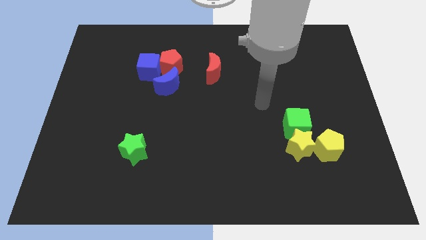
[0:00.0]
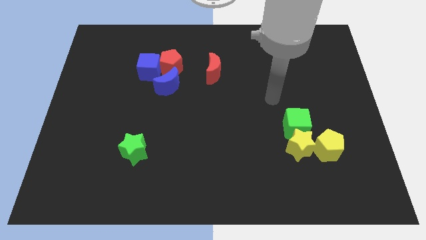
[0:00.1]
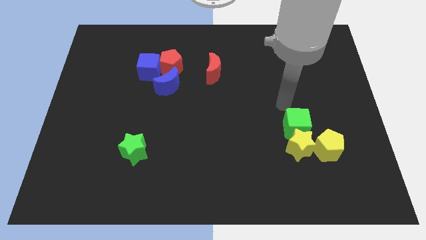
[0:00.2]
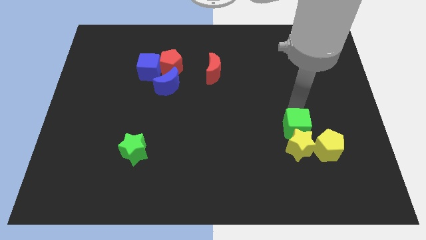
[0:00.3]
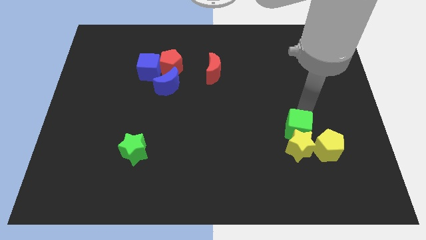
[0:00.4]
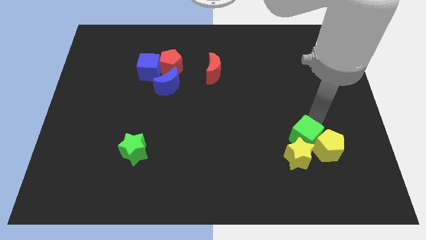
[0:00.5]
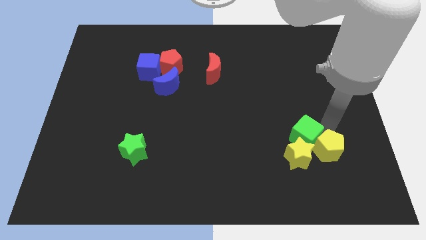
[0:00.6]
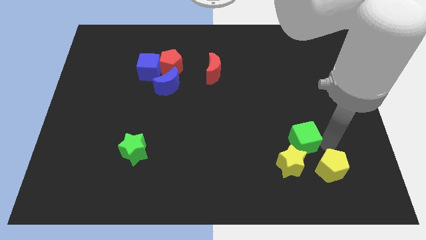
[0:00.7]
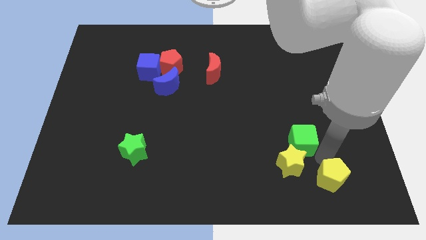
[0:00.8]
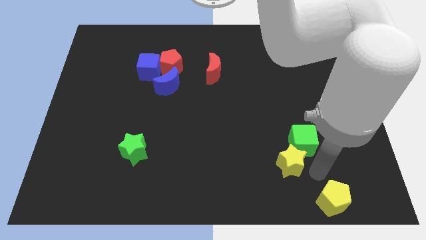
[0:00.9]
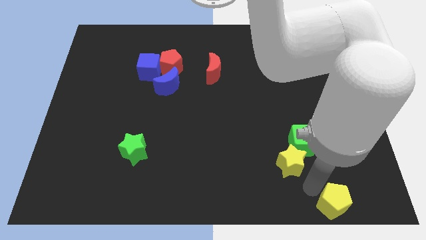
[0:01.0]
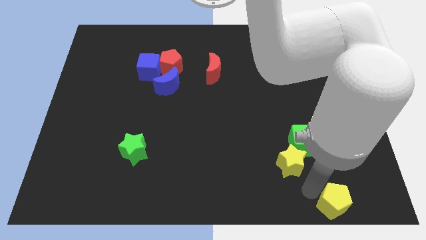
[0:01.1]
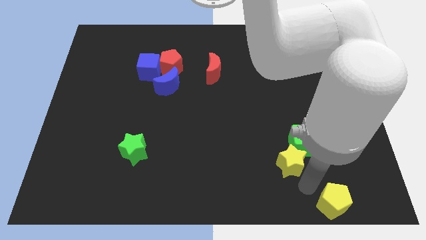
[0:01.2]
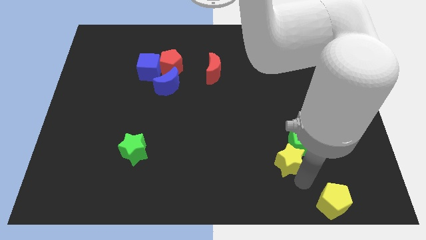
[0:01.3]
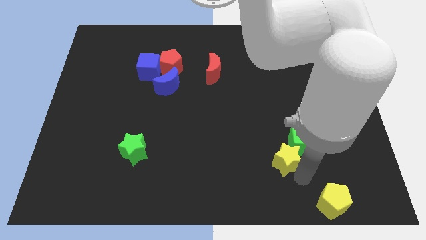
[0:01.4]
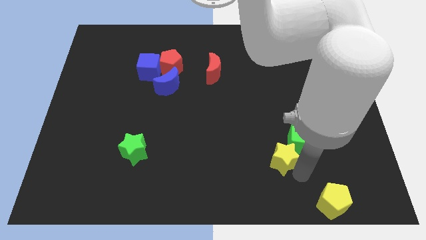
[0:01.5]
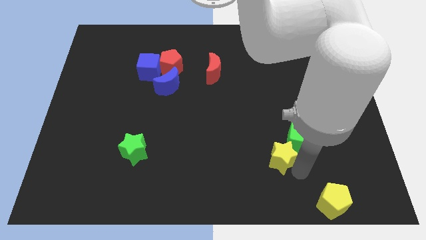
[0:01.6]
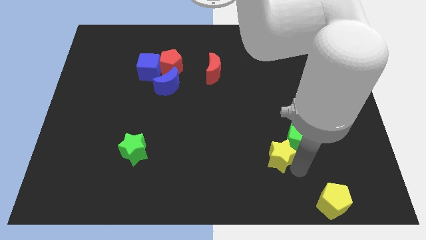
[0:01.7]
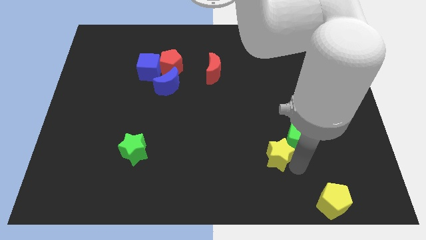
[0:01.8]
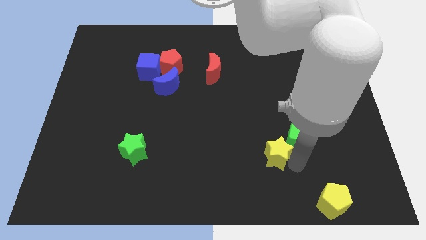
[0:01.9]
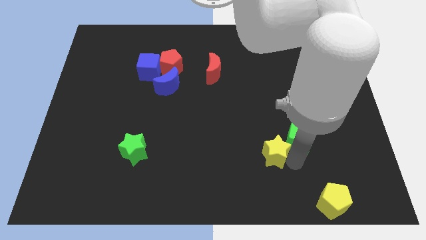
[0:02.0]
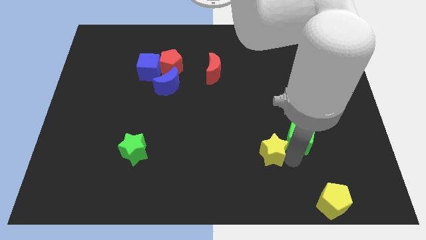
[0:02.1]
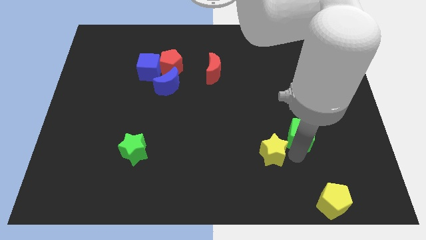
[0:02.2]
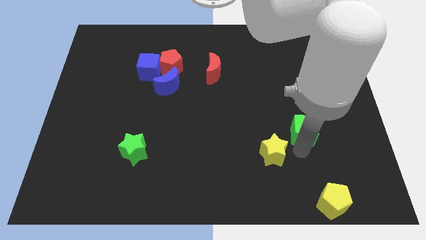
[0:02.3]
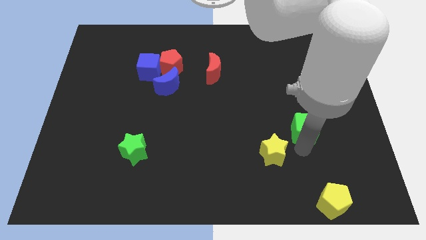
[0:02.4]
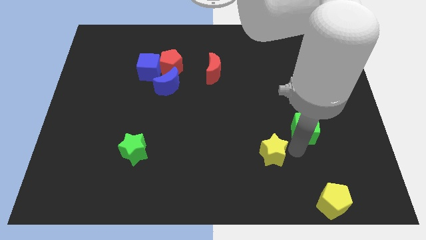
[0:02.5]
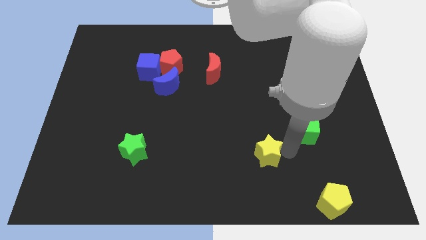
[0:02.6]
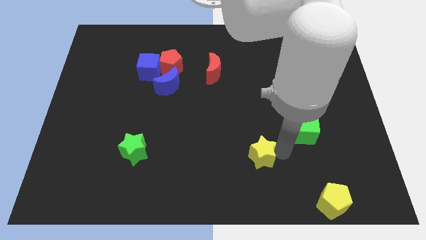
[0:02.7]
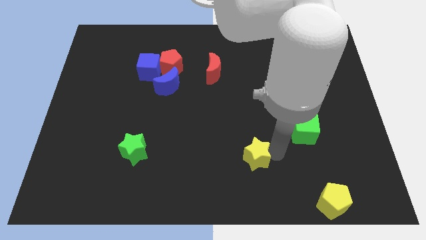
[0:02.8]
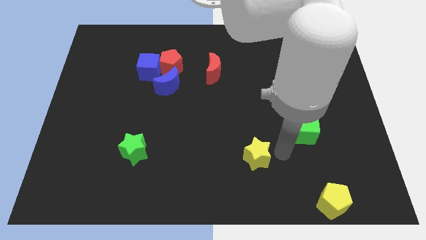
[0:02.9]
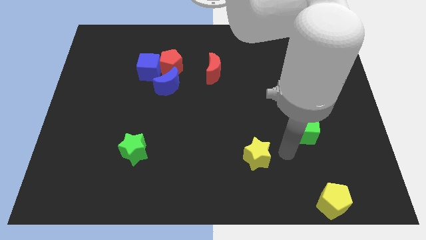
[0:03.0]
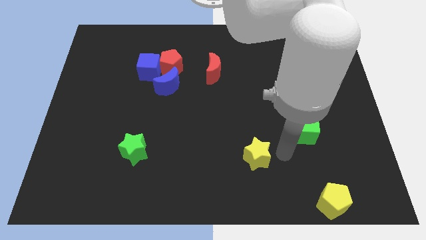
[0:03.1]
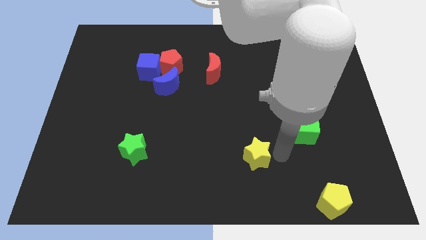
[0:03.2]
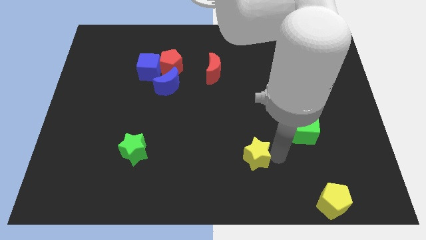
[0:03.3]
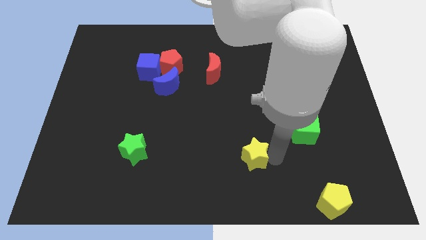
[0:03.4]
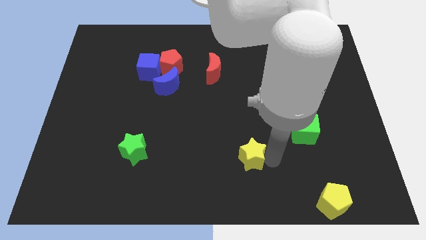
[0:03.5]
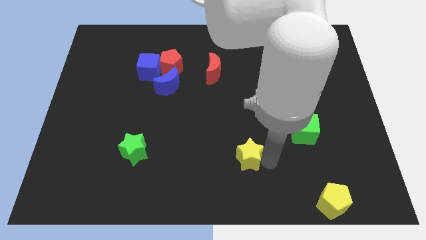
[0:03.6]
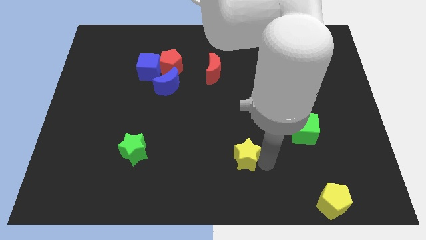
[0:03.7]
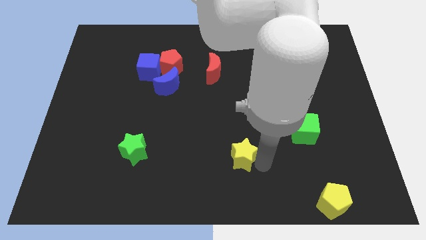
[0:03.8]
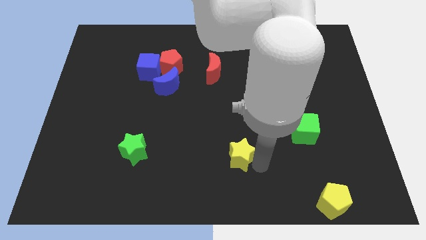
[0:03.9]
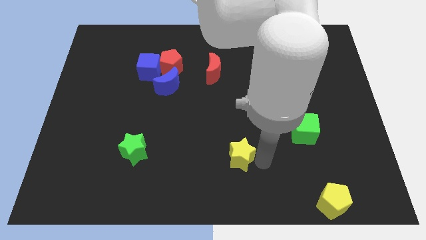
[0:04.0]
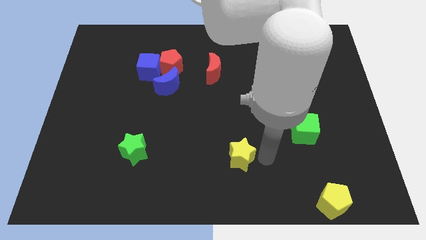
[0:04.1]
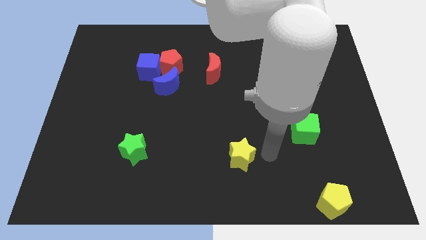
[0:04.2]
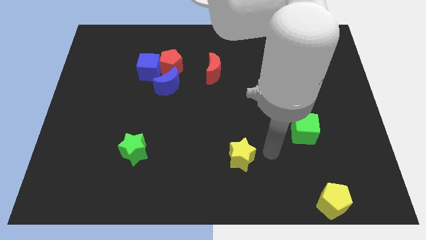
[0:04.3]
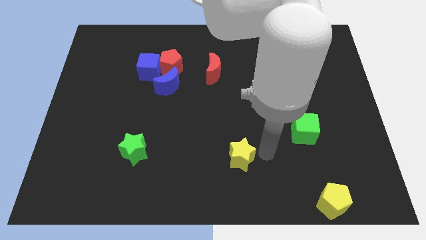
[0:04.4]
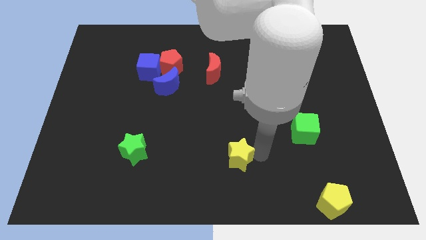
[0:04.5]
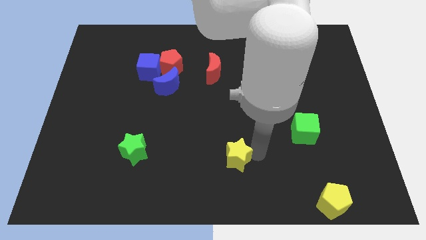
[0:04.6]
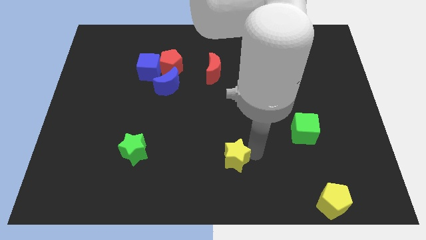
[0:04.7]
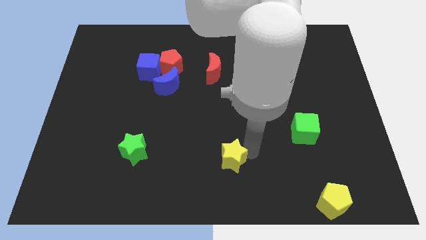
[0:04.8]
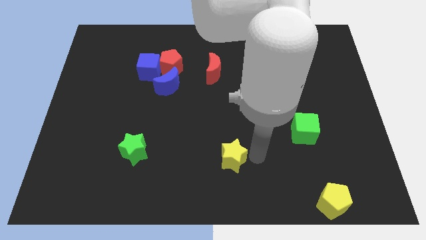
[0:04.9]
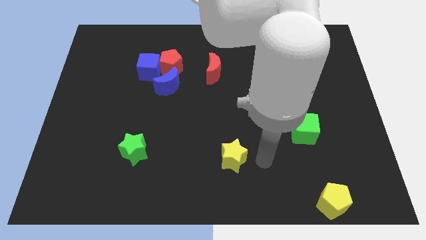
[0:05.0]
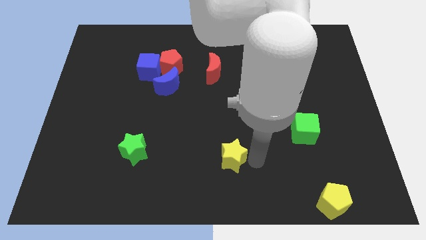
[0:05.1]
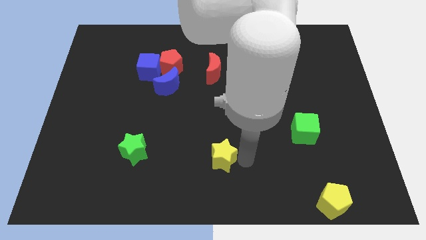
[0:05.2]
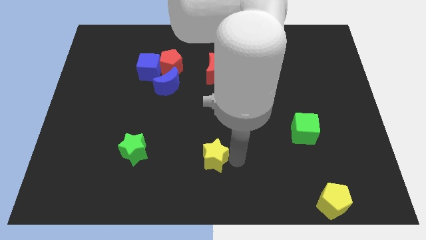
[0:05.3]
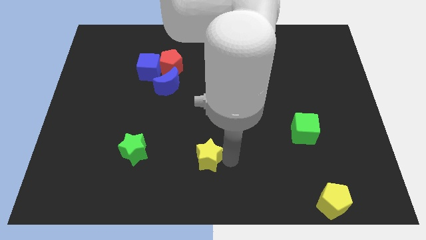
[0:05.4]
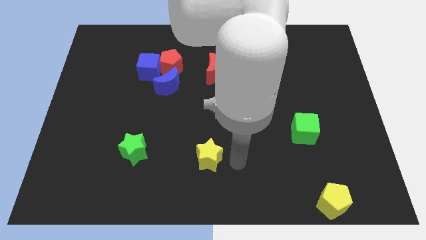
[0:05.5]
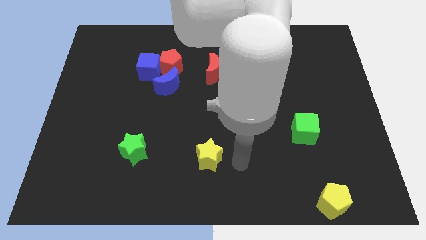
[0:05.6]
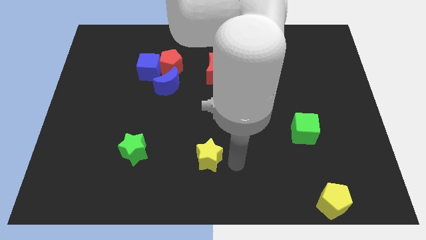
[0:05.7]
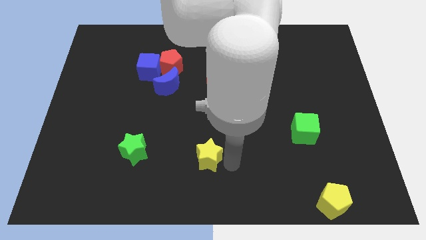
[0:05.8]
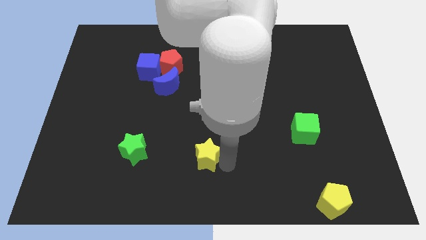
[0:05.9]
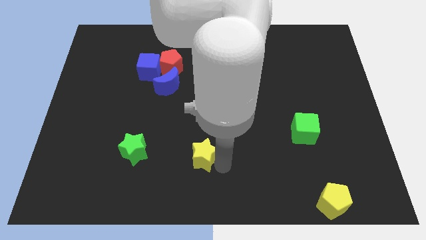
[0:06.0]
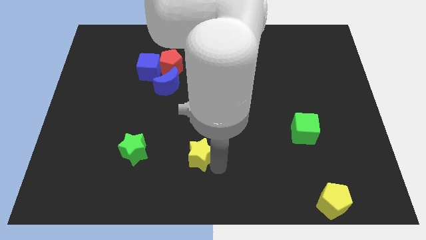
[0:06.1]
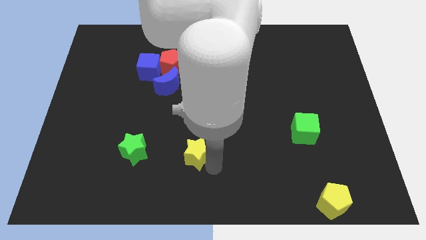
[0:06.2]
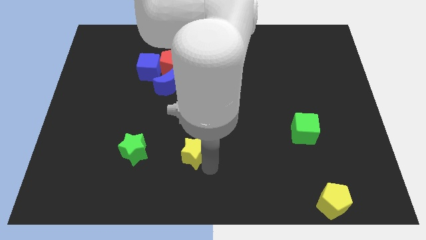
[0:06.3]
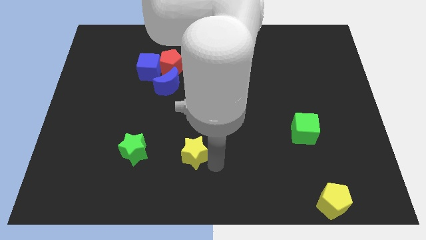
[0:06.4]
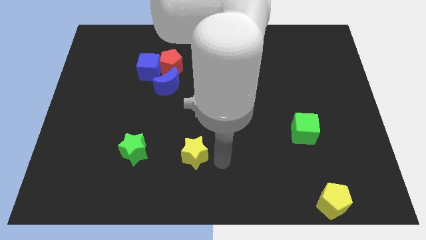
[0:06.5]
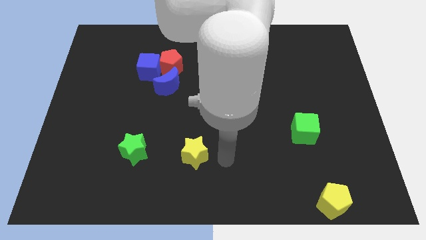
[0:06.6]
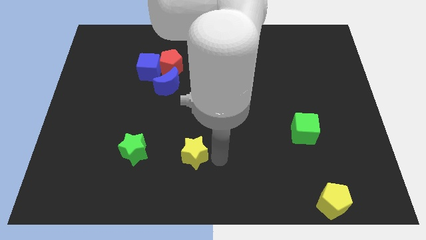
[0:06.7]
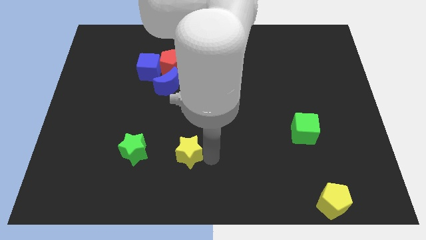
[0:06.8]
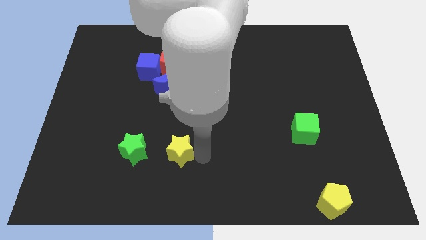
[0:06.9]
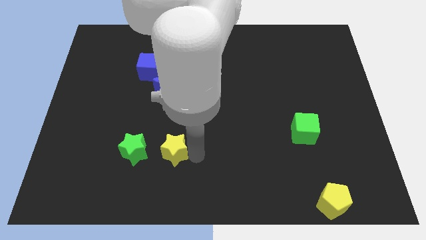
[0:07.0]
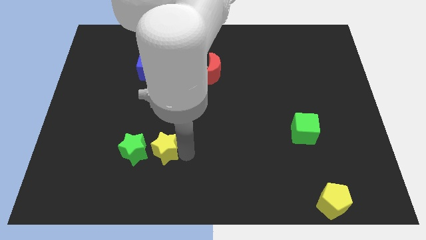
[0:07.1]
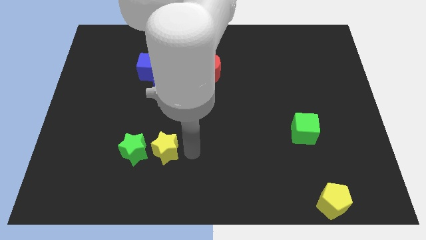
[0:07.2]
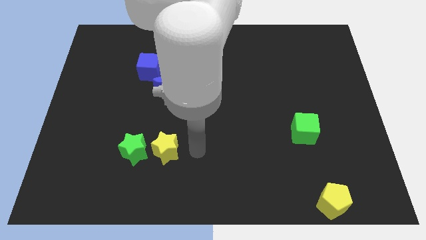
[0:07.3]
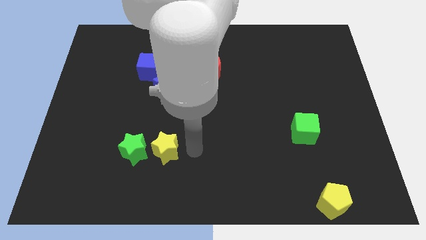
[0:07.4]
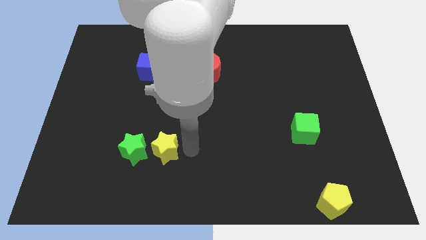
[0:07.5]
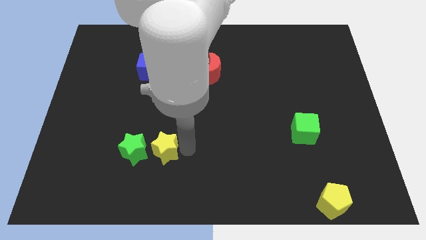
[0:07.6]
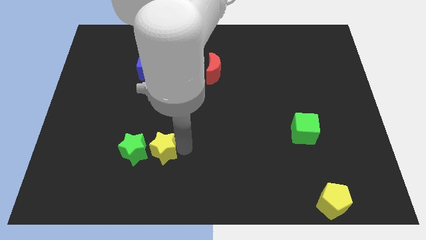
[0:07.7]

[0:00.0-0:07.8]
slide the yellow star towards the green star
